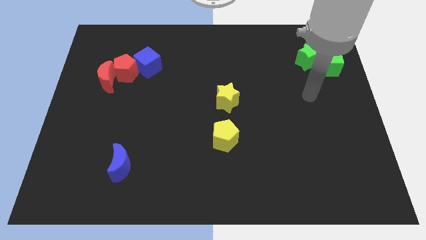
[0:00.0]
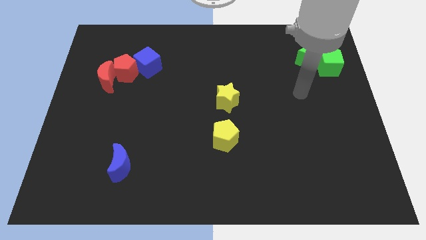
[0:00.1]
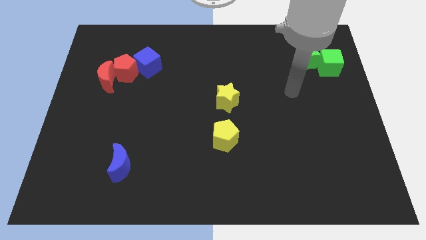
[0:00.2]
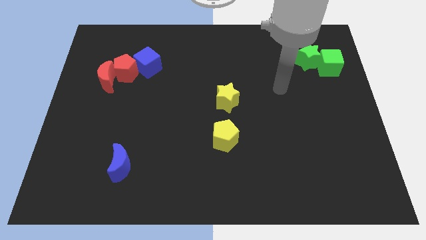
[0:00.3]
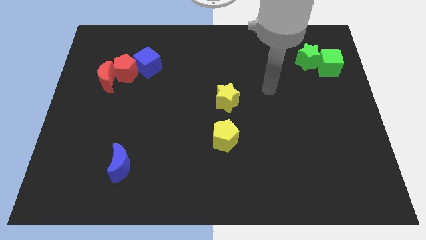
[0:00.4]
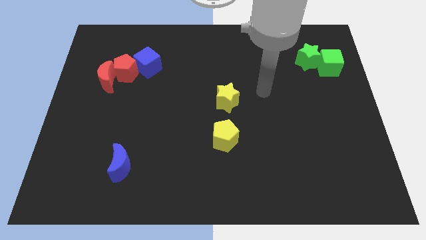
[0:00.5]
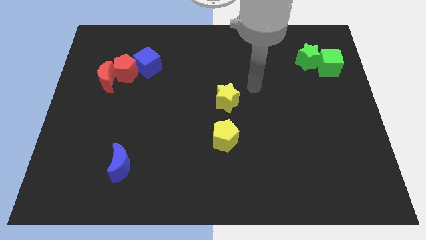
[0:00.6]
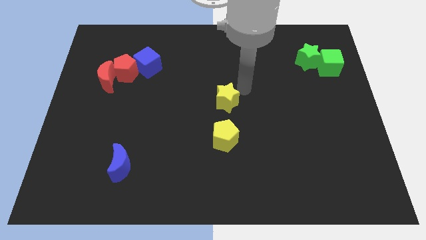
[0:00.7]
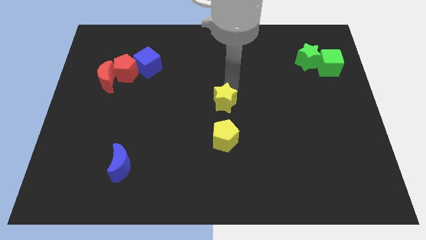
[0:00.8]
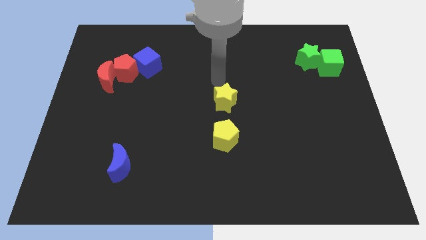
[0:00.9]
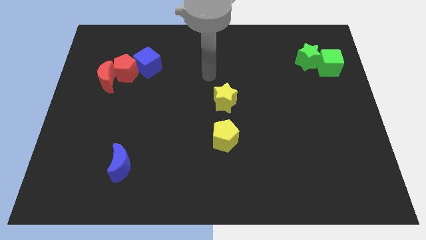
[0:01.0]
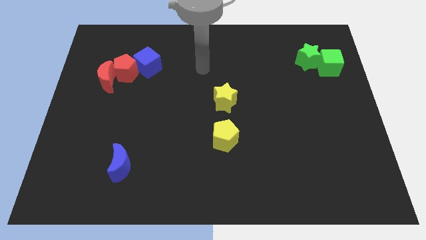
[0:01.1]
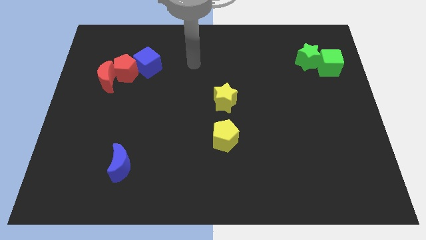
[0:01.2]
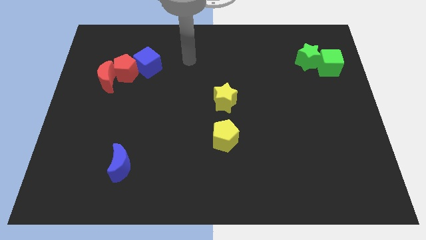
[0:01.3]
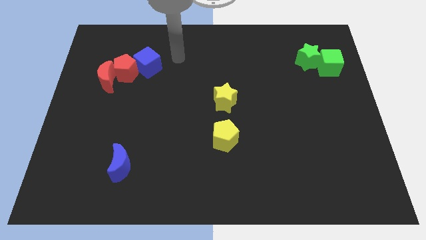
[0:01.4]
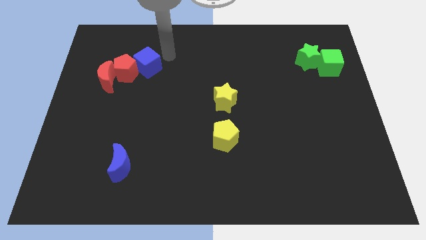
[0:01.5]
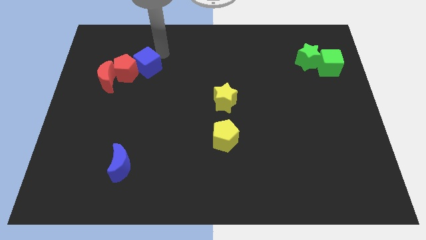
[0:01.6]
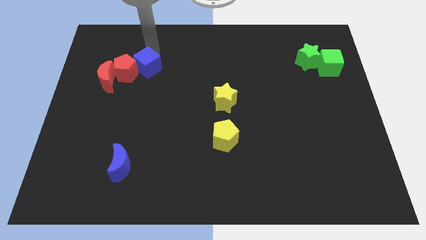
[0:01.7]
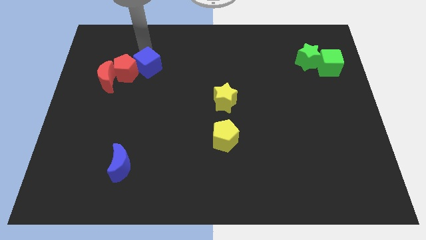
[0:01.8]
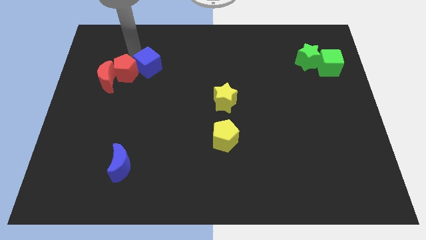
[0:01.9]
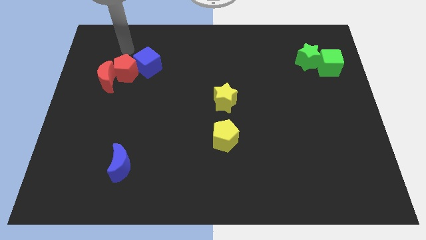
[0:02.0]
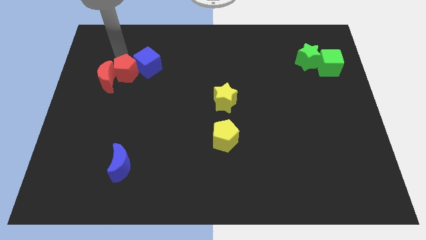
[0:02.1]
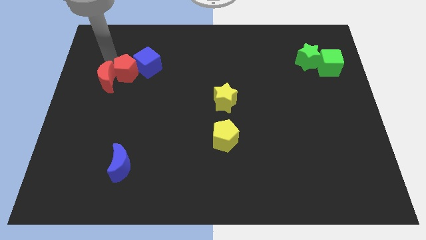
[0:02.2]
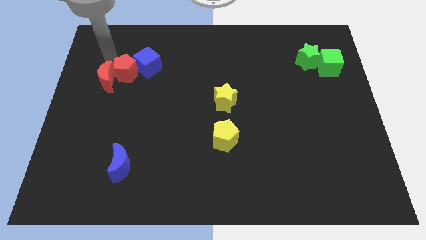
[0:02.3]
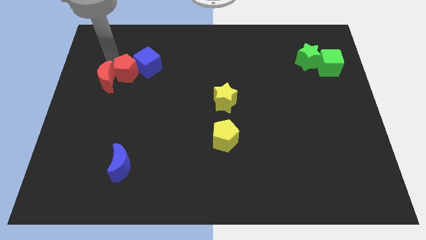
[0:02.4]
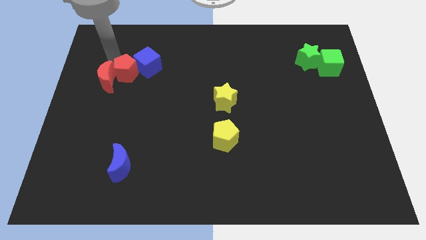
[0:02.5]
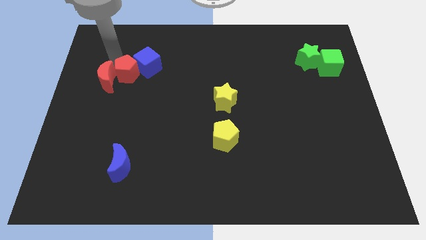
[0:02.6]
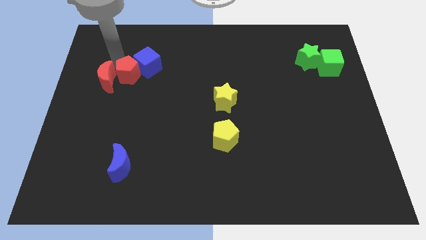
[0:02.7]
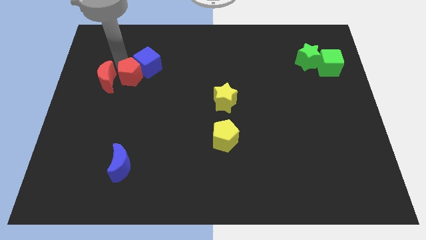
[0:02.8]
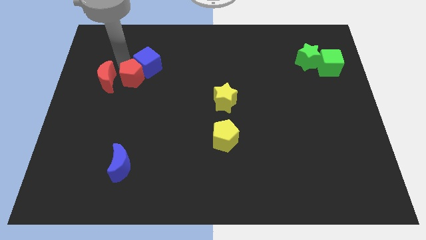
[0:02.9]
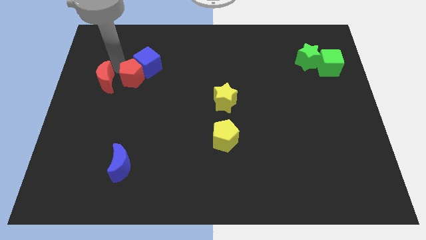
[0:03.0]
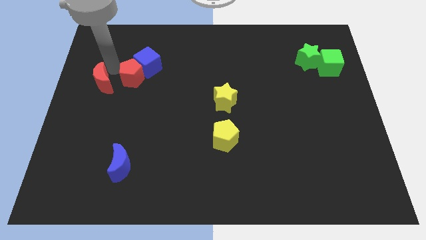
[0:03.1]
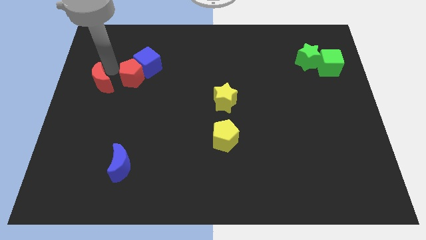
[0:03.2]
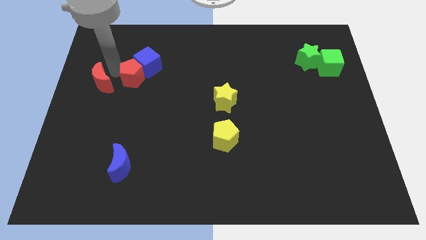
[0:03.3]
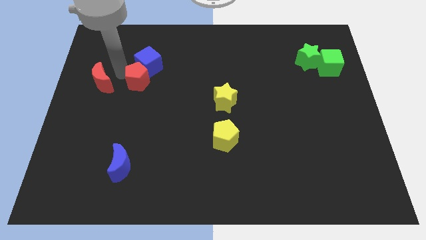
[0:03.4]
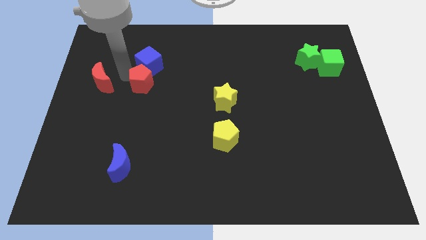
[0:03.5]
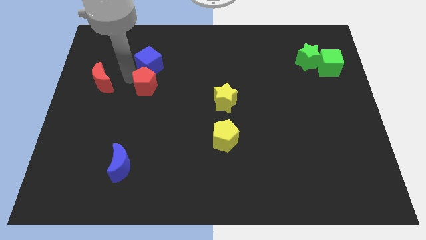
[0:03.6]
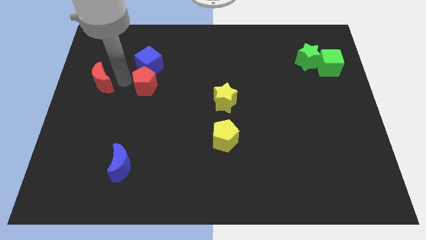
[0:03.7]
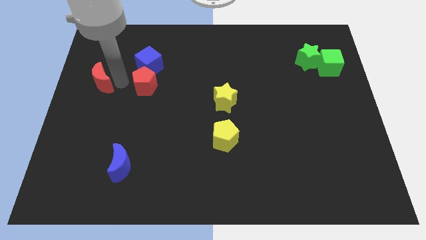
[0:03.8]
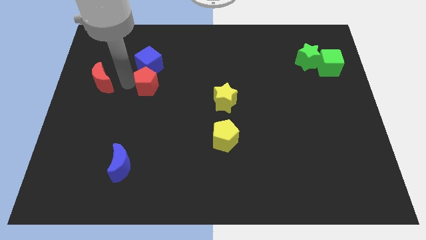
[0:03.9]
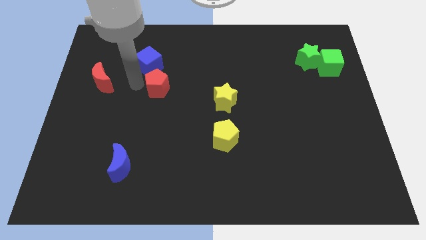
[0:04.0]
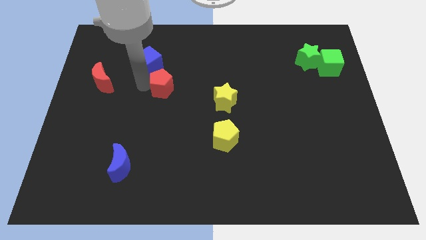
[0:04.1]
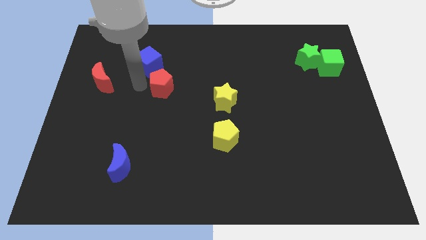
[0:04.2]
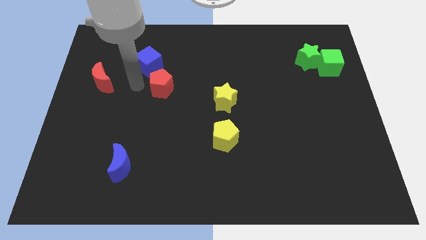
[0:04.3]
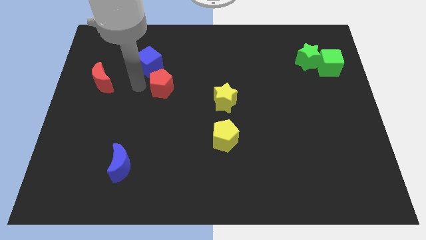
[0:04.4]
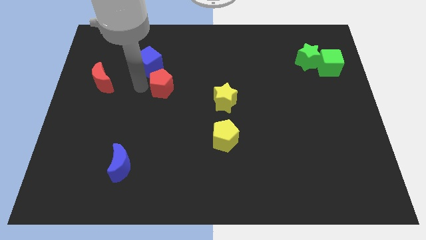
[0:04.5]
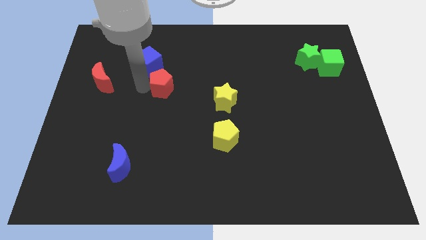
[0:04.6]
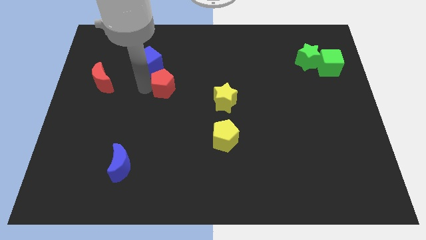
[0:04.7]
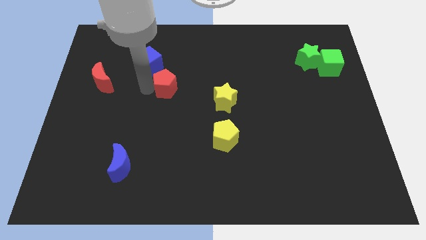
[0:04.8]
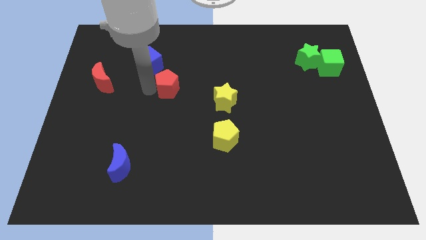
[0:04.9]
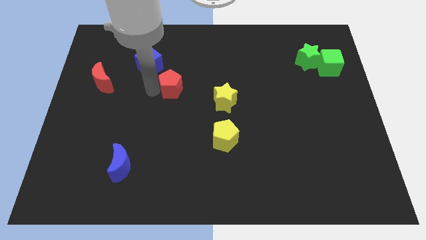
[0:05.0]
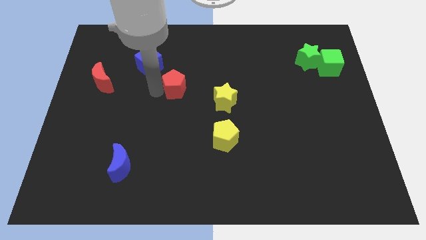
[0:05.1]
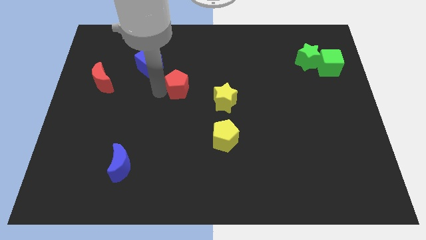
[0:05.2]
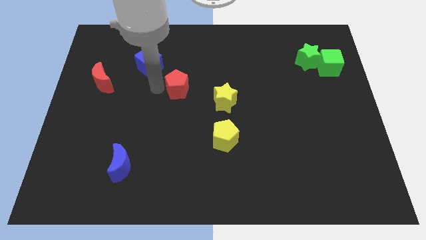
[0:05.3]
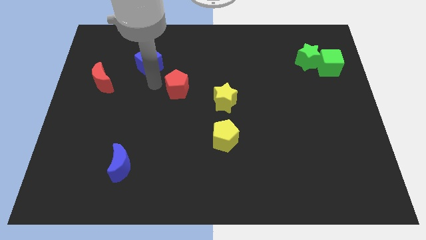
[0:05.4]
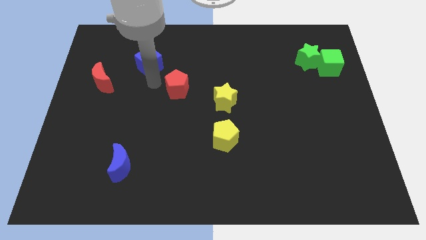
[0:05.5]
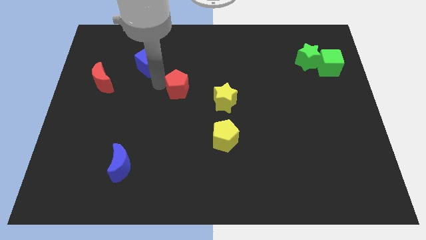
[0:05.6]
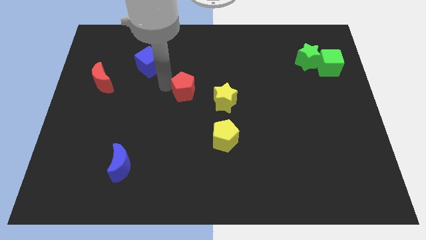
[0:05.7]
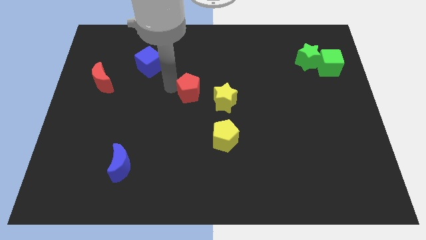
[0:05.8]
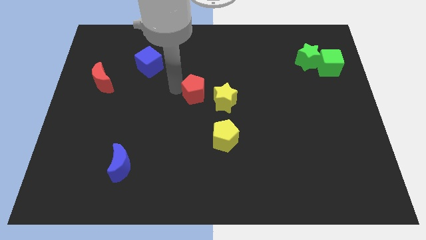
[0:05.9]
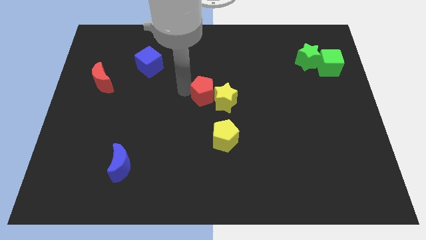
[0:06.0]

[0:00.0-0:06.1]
slide the red pentagon towards the yellow star

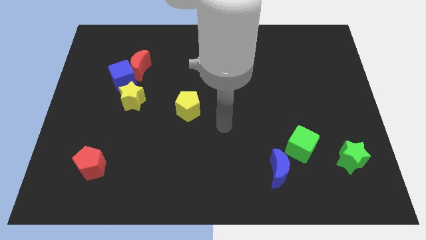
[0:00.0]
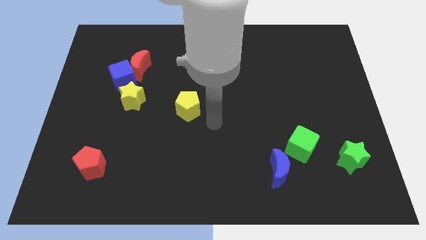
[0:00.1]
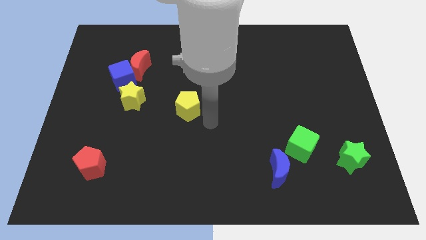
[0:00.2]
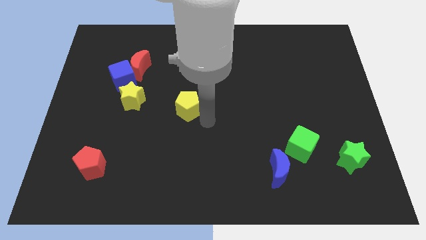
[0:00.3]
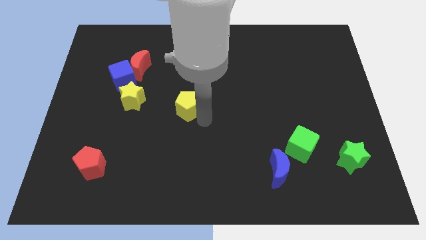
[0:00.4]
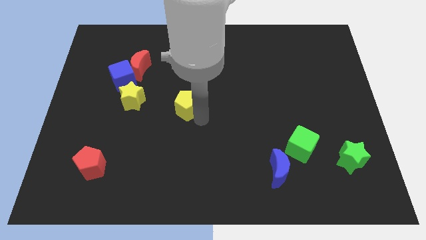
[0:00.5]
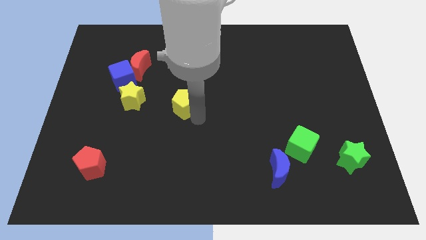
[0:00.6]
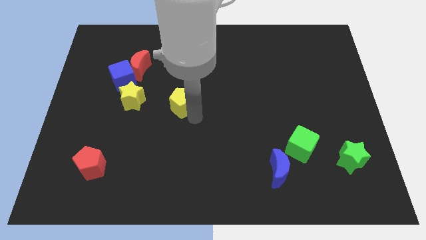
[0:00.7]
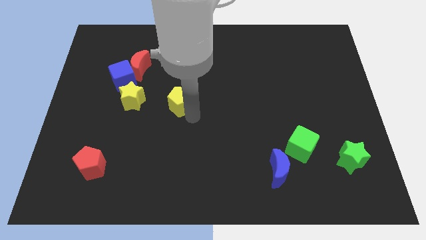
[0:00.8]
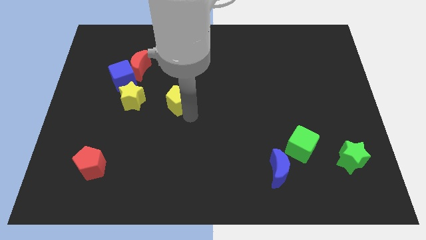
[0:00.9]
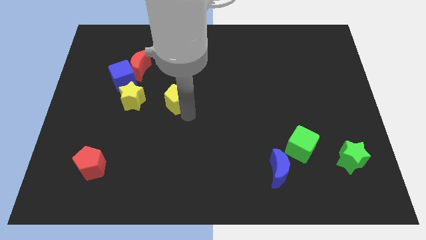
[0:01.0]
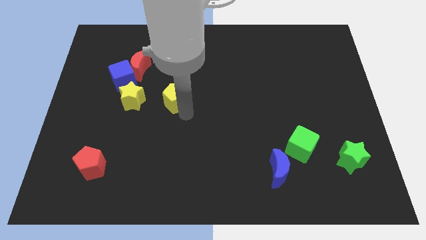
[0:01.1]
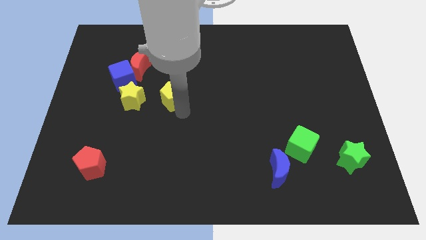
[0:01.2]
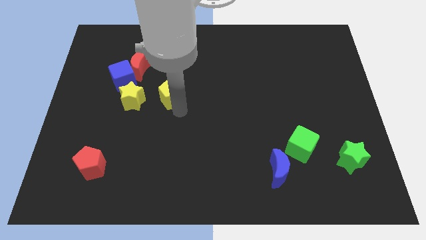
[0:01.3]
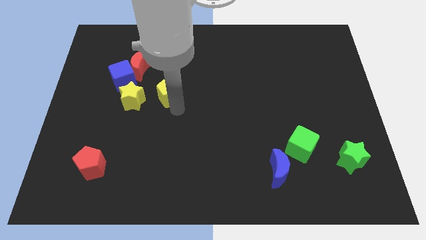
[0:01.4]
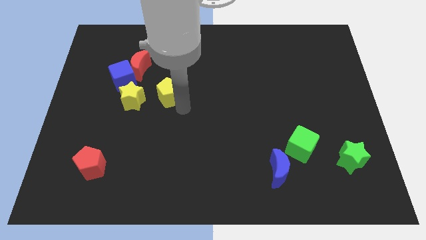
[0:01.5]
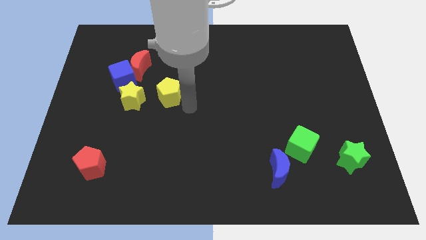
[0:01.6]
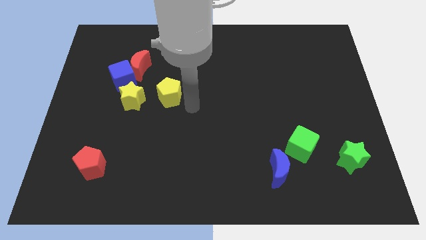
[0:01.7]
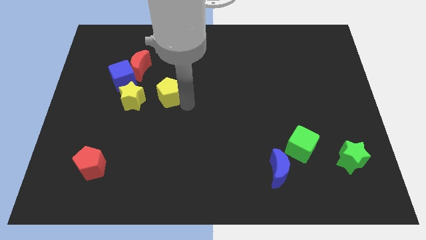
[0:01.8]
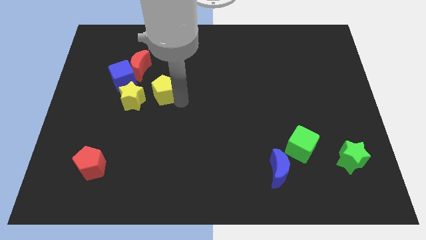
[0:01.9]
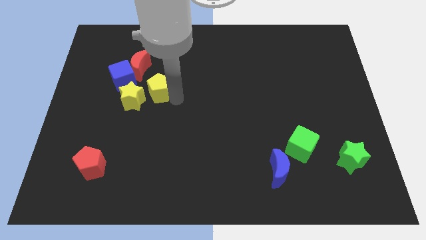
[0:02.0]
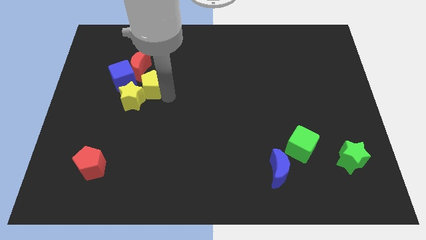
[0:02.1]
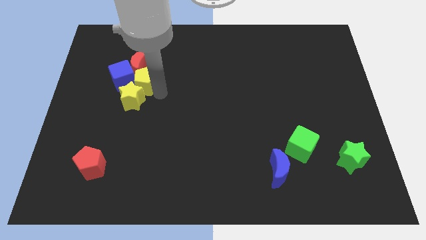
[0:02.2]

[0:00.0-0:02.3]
push the yellow pentagon towards the red moon
